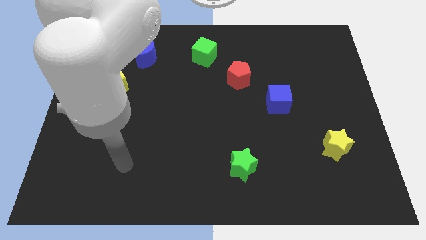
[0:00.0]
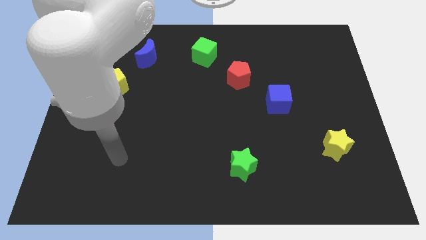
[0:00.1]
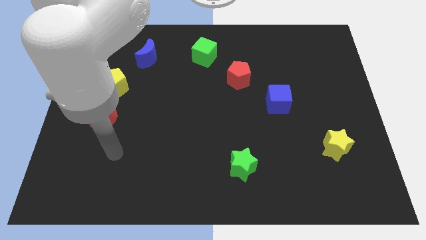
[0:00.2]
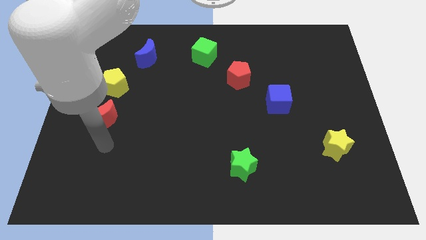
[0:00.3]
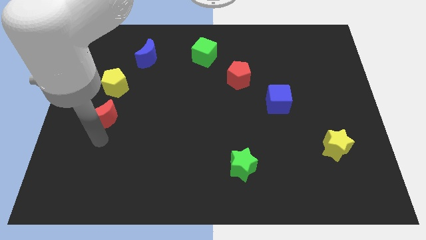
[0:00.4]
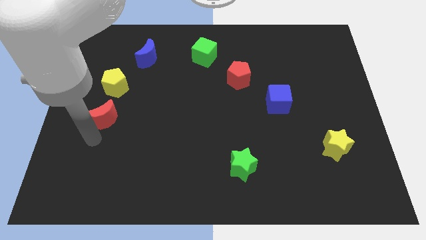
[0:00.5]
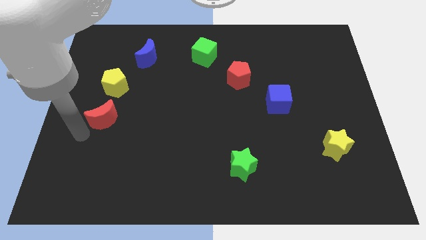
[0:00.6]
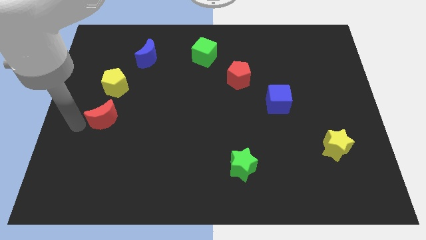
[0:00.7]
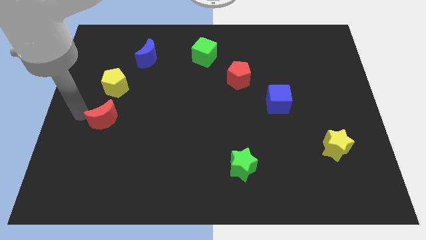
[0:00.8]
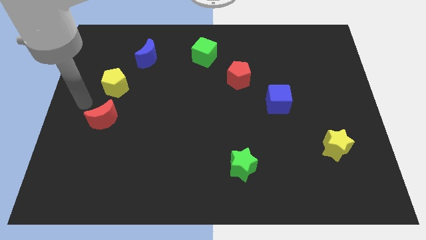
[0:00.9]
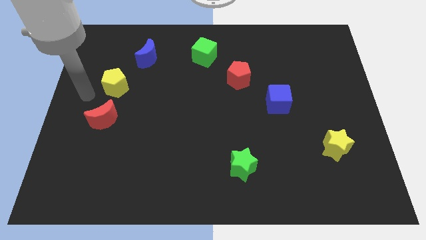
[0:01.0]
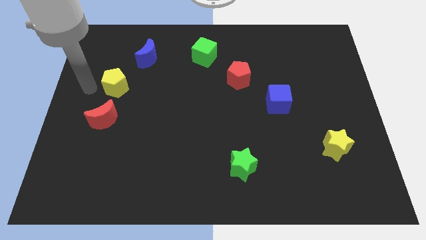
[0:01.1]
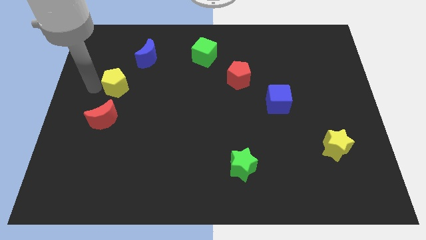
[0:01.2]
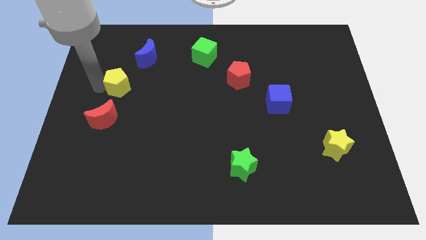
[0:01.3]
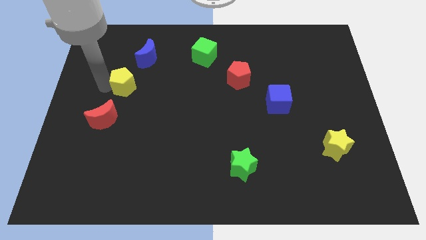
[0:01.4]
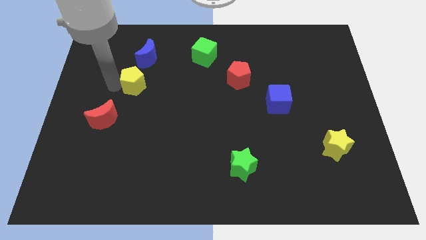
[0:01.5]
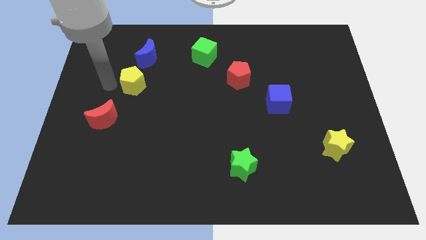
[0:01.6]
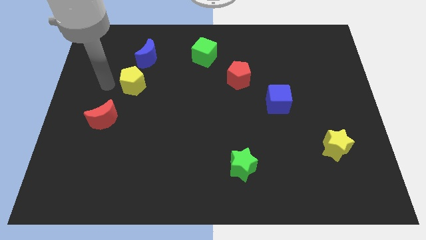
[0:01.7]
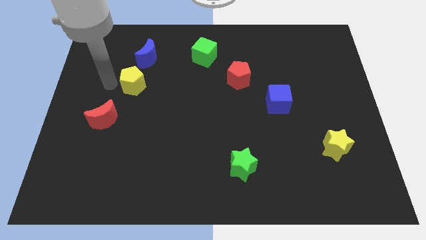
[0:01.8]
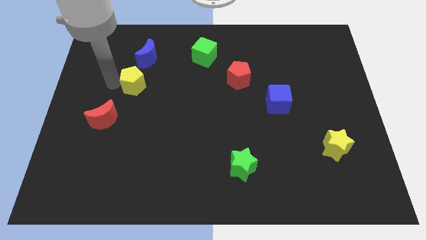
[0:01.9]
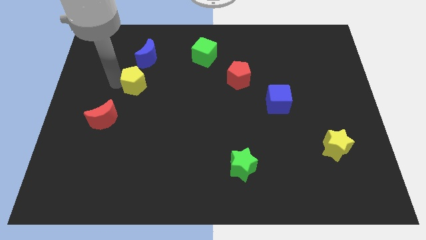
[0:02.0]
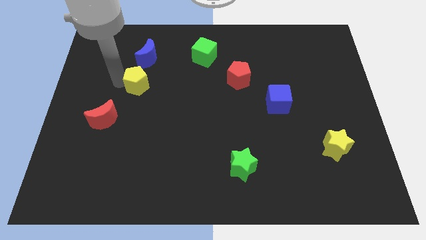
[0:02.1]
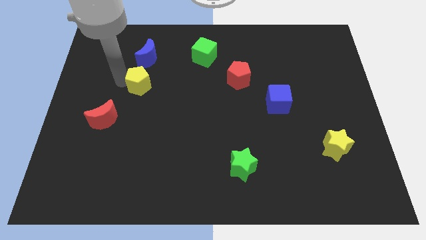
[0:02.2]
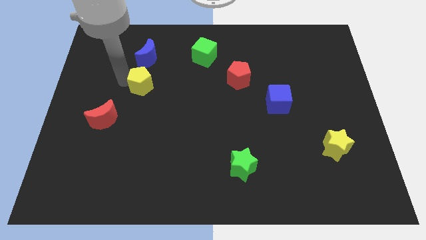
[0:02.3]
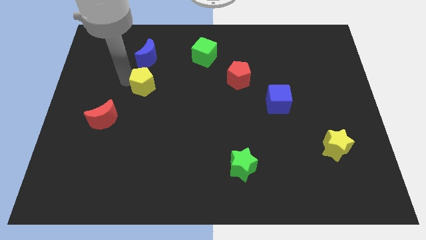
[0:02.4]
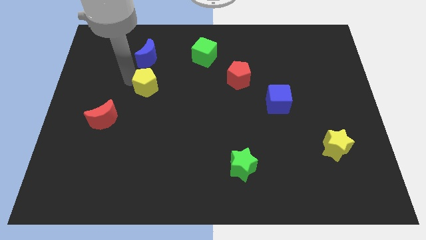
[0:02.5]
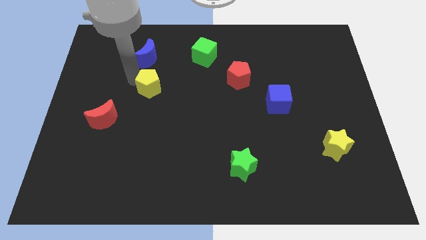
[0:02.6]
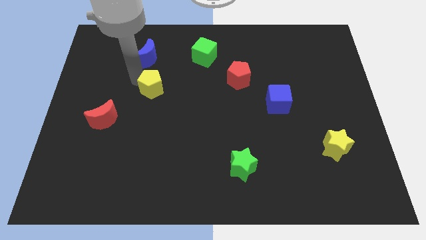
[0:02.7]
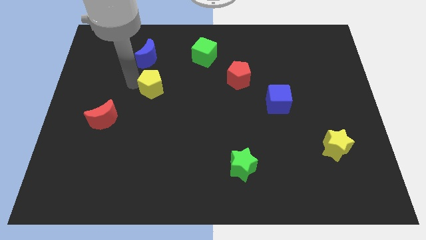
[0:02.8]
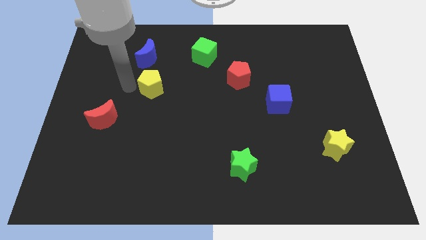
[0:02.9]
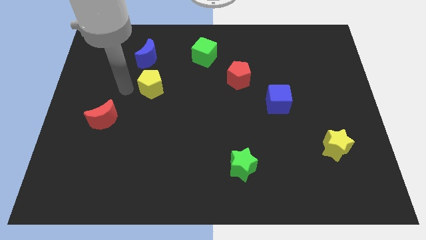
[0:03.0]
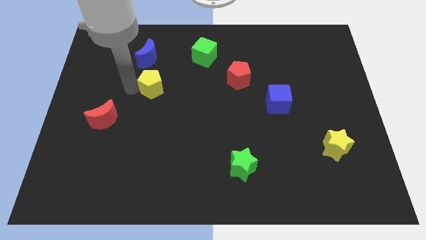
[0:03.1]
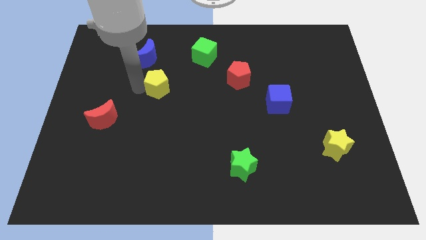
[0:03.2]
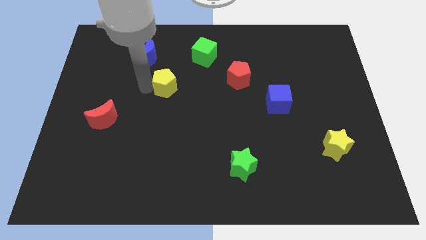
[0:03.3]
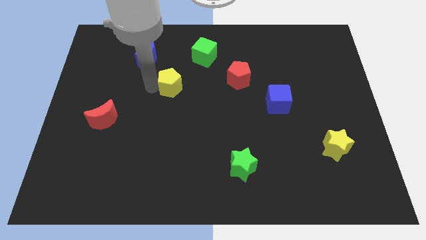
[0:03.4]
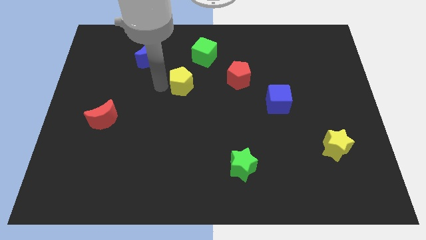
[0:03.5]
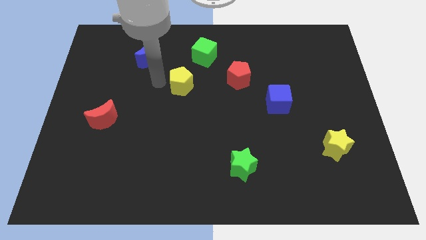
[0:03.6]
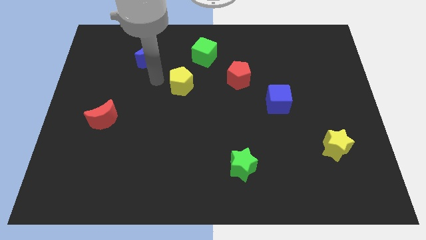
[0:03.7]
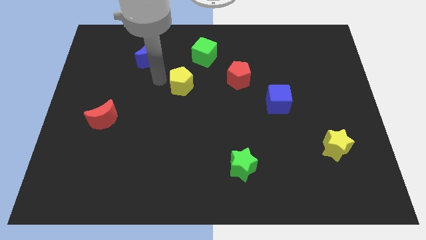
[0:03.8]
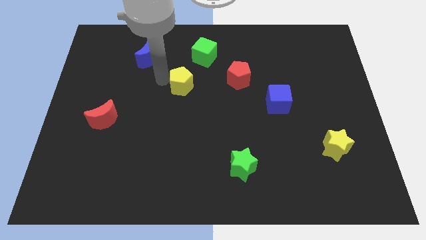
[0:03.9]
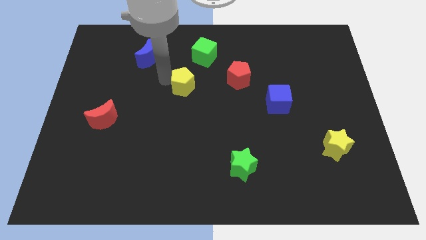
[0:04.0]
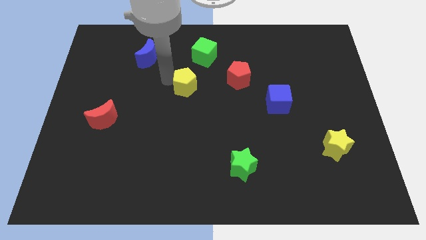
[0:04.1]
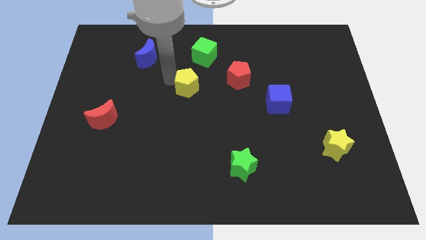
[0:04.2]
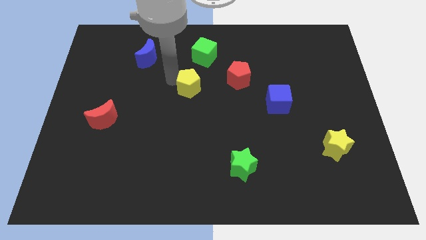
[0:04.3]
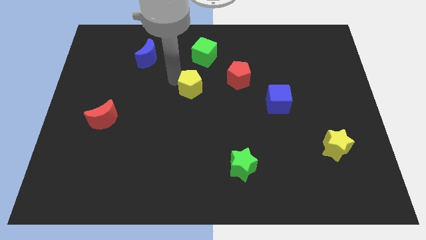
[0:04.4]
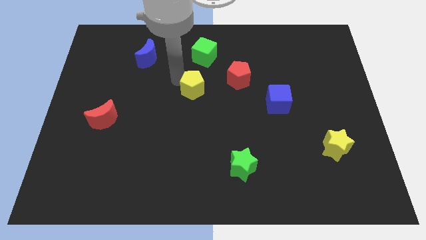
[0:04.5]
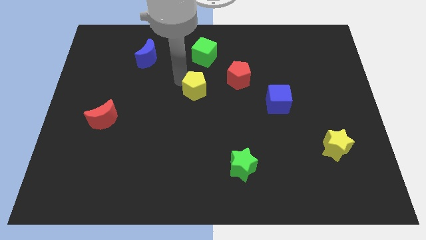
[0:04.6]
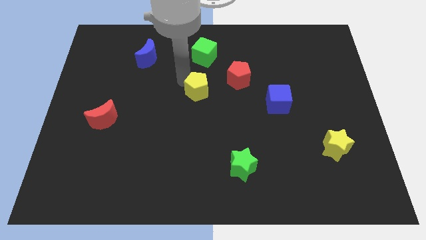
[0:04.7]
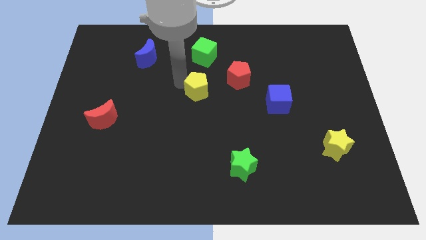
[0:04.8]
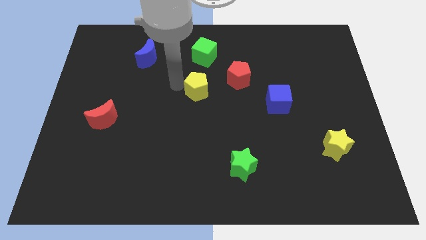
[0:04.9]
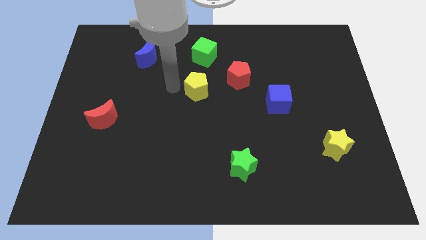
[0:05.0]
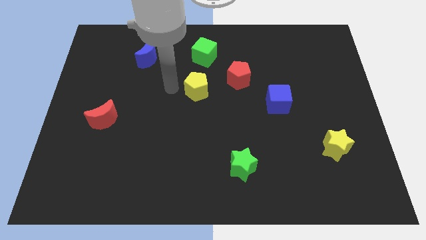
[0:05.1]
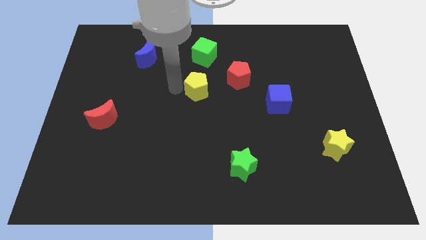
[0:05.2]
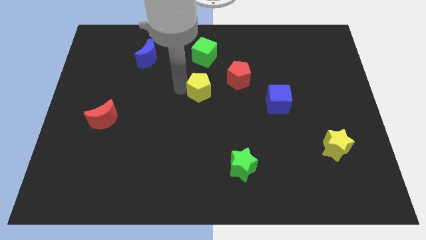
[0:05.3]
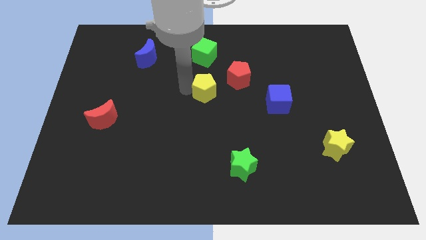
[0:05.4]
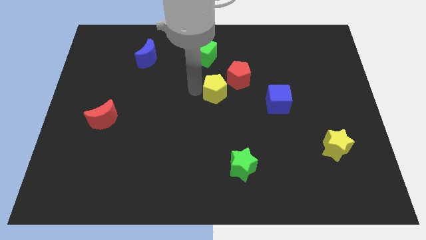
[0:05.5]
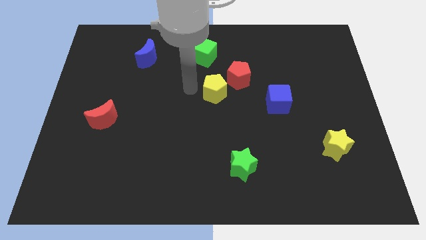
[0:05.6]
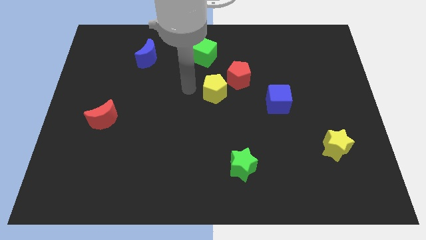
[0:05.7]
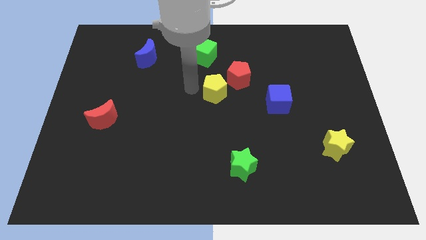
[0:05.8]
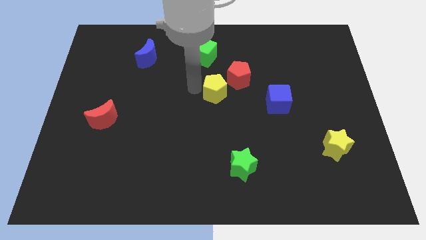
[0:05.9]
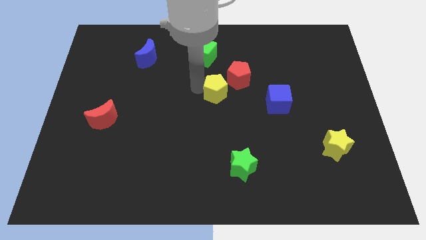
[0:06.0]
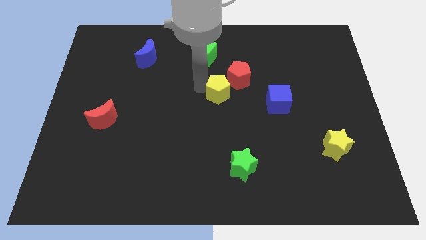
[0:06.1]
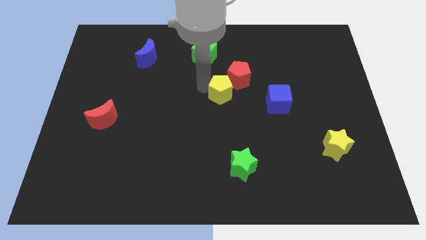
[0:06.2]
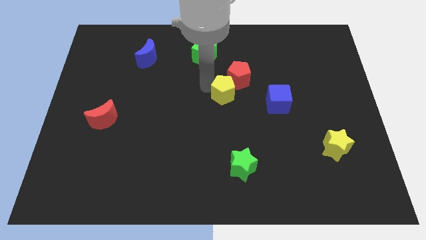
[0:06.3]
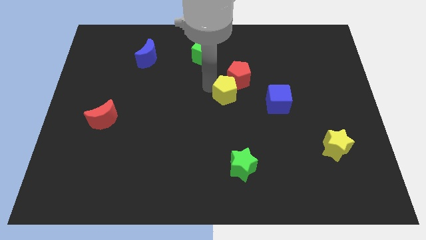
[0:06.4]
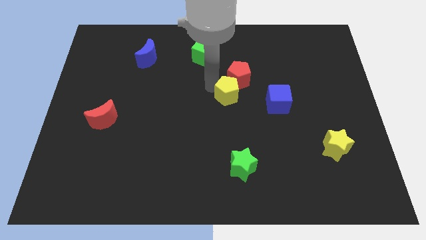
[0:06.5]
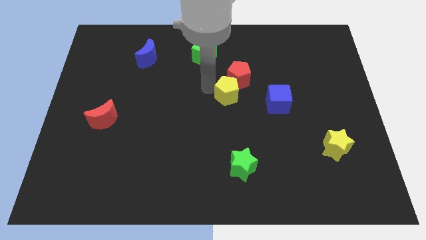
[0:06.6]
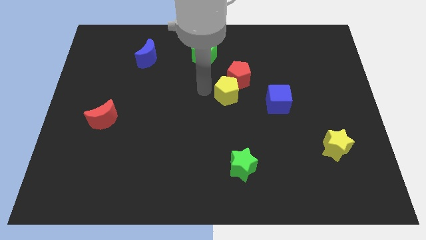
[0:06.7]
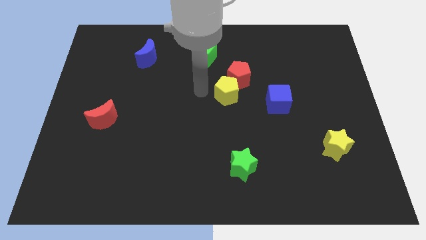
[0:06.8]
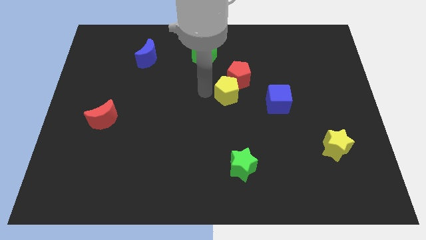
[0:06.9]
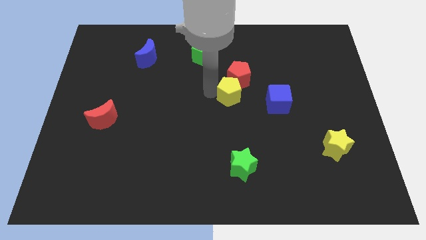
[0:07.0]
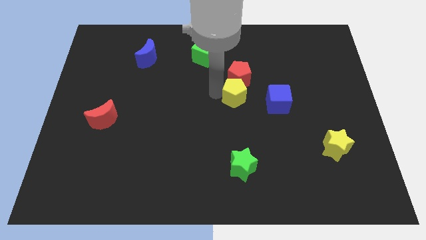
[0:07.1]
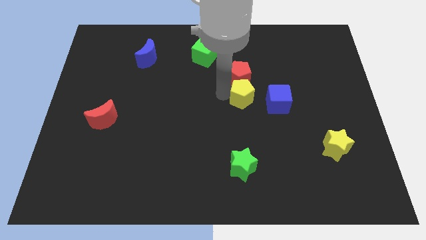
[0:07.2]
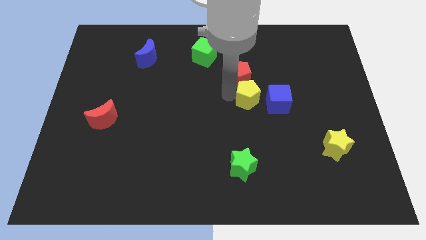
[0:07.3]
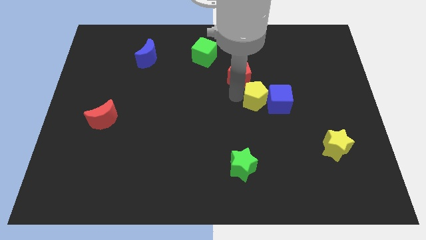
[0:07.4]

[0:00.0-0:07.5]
push the yellow pentagon towards the blue cube
